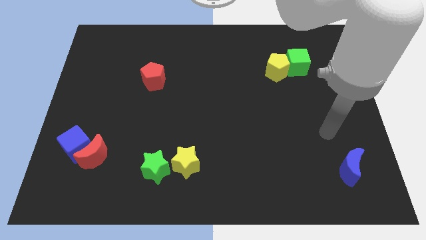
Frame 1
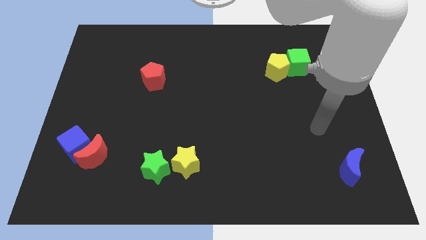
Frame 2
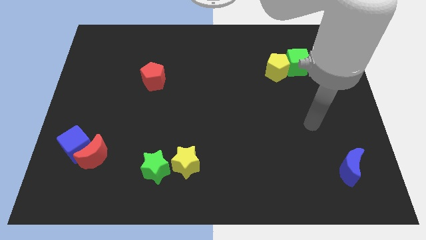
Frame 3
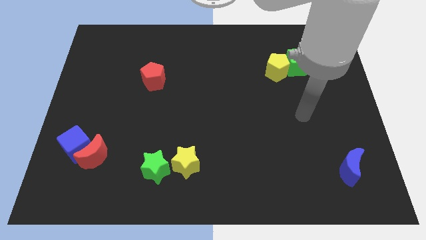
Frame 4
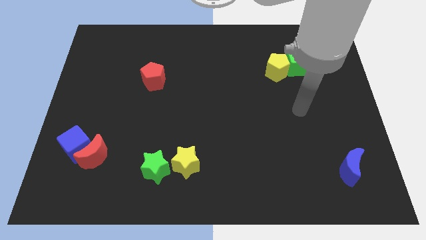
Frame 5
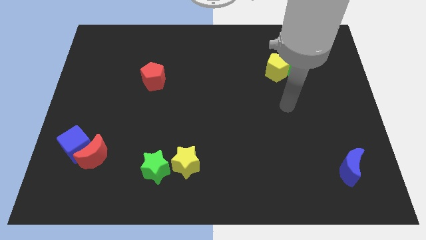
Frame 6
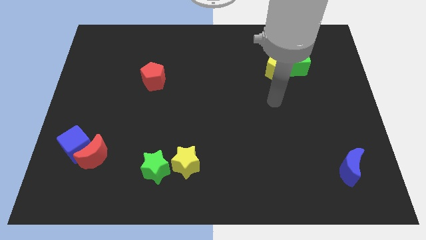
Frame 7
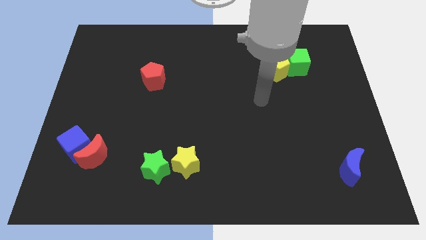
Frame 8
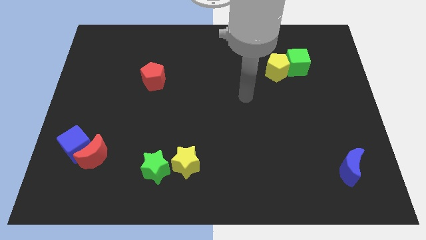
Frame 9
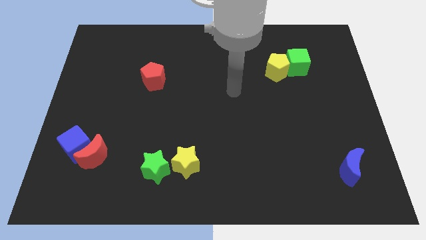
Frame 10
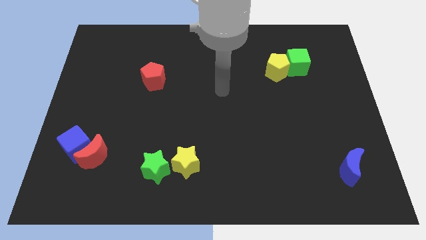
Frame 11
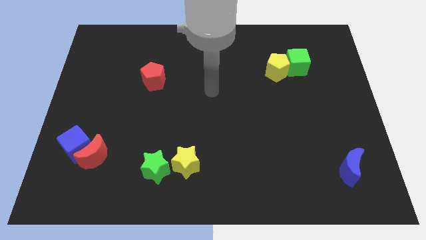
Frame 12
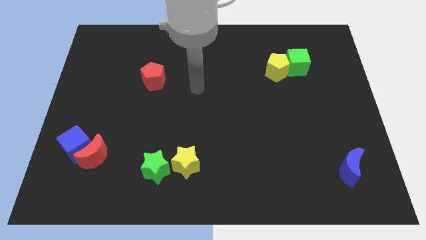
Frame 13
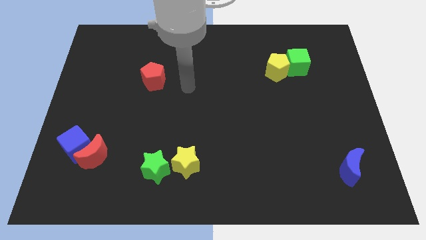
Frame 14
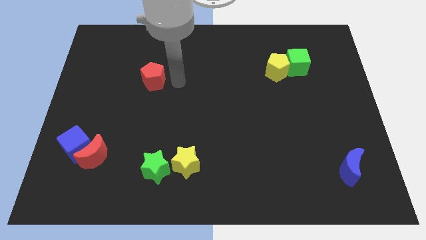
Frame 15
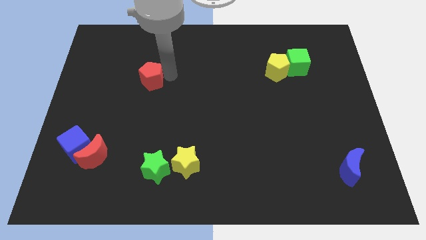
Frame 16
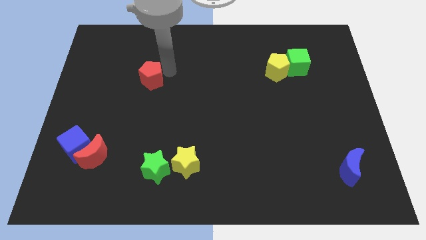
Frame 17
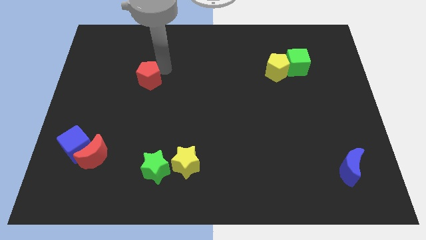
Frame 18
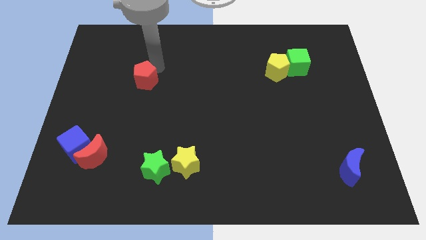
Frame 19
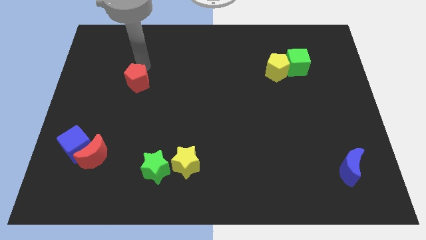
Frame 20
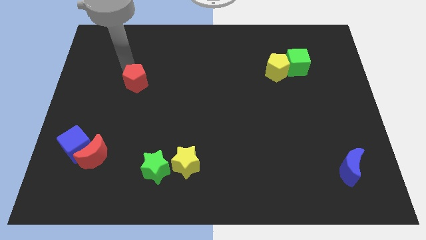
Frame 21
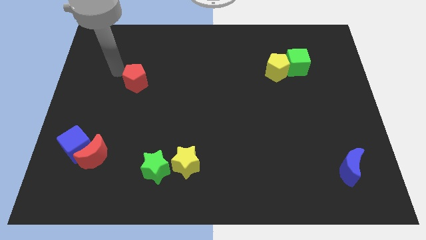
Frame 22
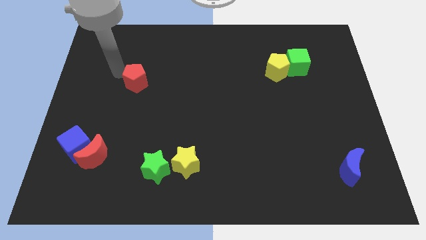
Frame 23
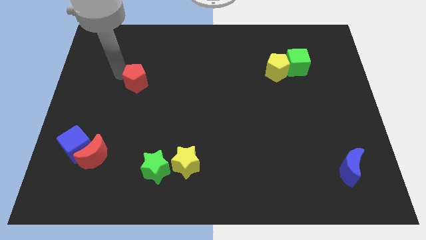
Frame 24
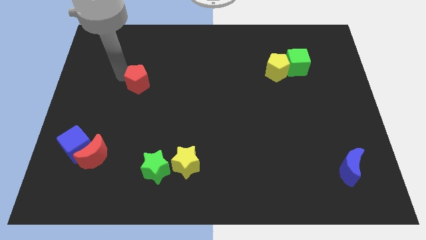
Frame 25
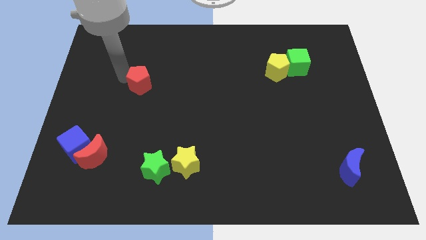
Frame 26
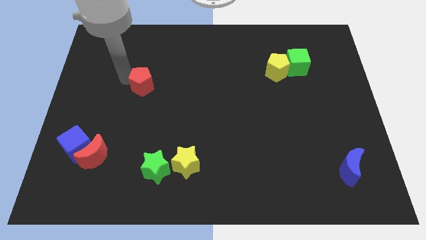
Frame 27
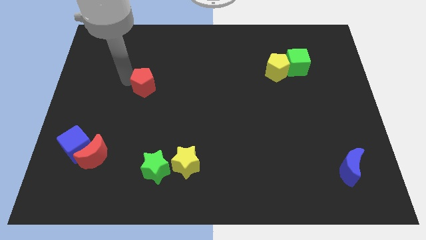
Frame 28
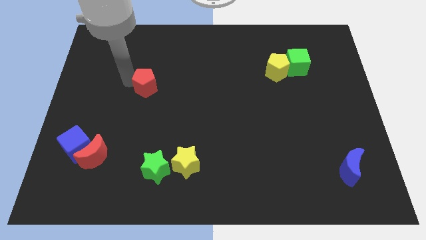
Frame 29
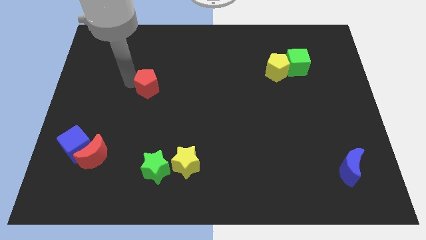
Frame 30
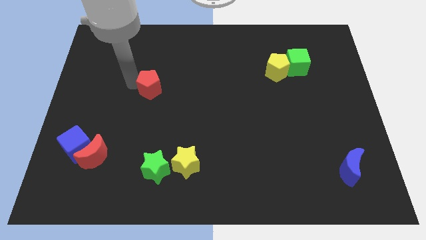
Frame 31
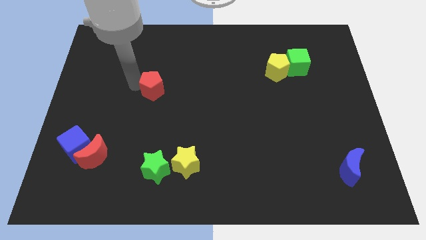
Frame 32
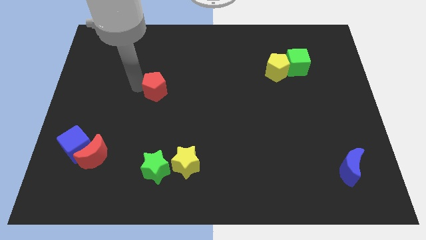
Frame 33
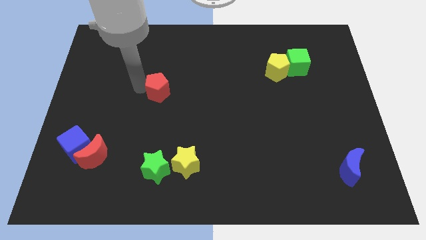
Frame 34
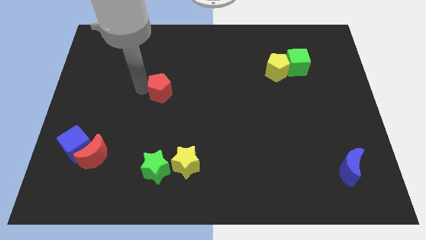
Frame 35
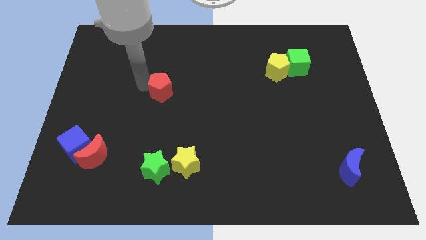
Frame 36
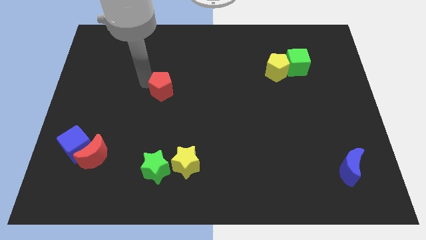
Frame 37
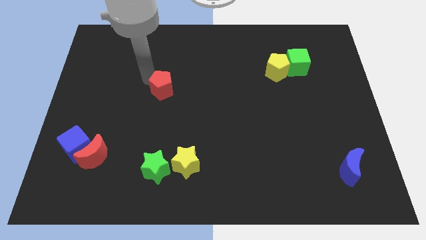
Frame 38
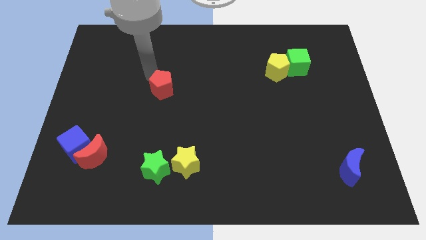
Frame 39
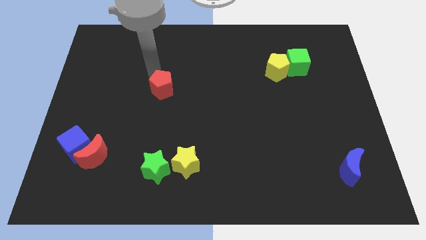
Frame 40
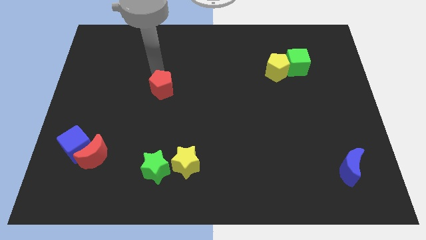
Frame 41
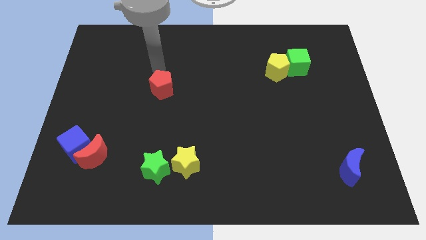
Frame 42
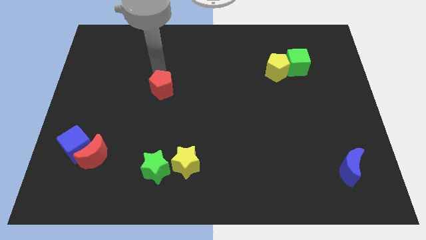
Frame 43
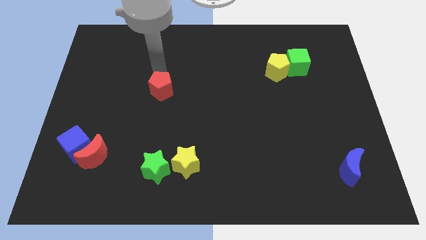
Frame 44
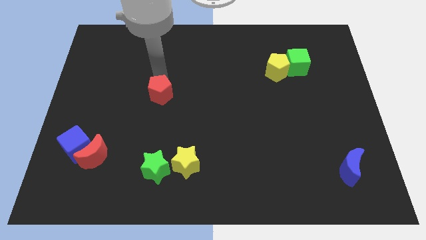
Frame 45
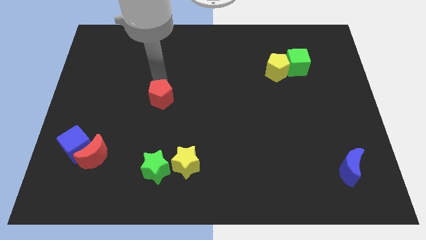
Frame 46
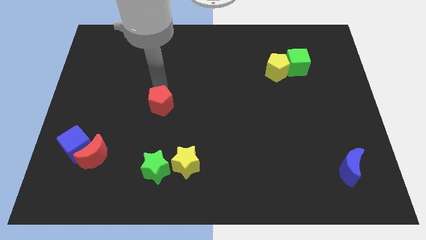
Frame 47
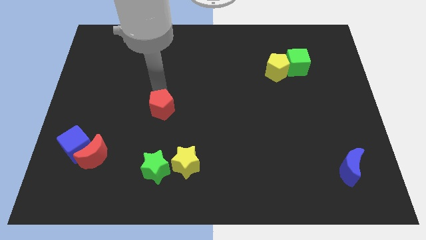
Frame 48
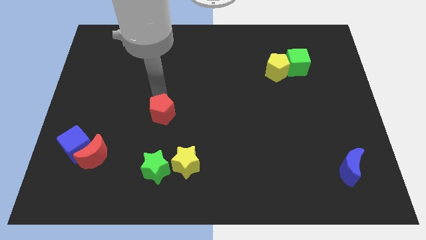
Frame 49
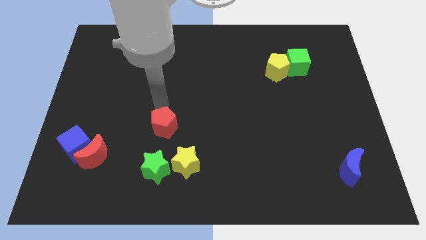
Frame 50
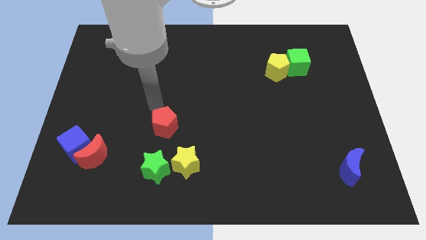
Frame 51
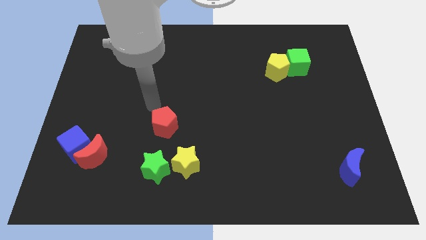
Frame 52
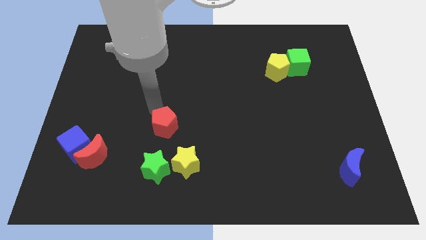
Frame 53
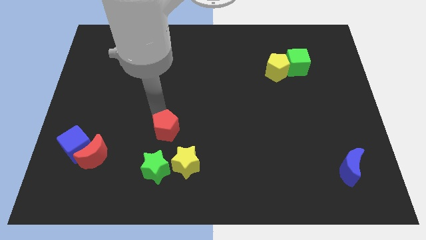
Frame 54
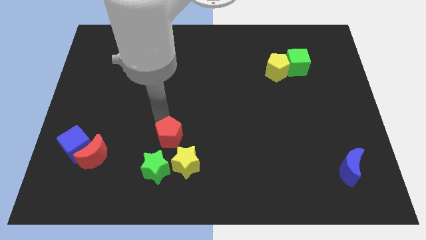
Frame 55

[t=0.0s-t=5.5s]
move the red pentagon diagonally up and to the right of the green star

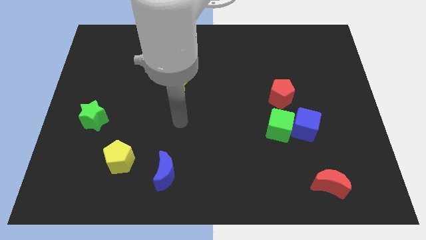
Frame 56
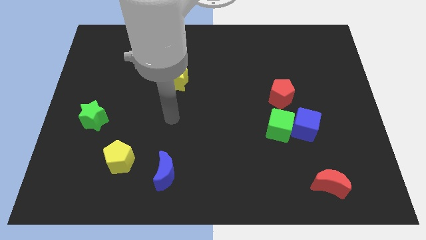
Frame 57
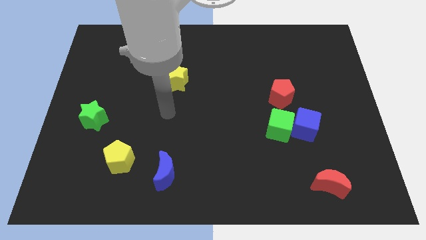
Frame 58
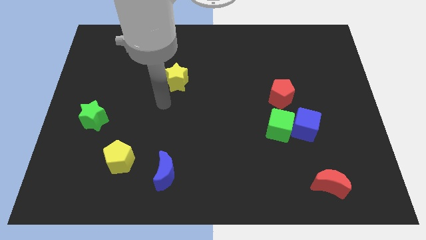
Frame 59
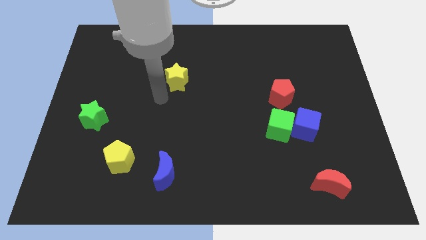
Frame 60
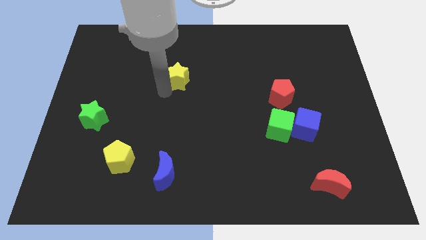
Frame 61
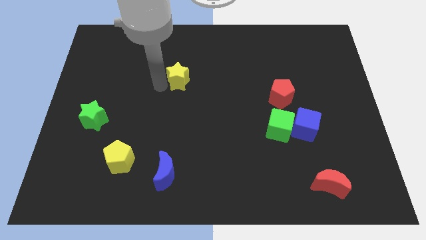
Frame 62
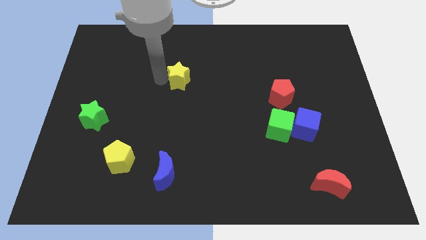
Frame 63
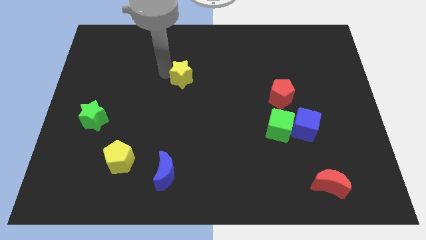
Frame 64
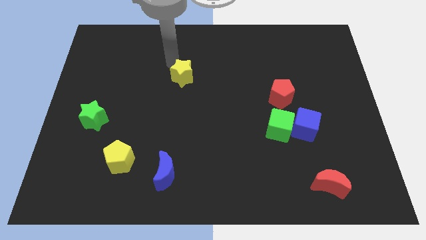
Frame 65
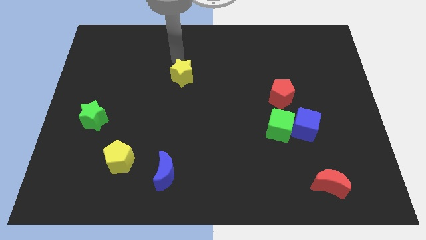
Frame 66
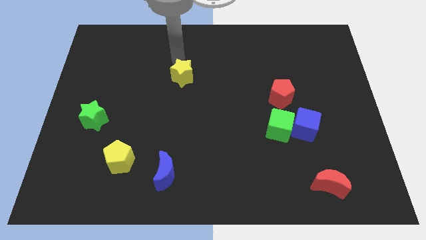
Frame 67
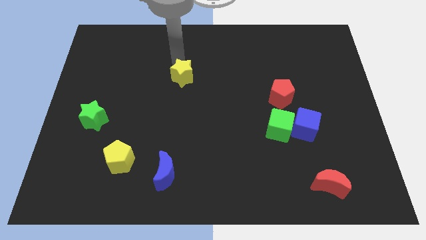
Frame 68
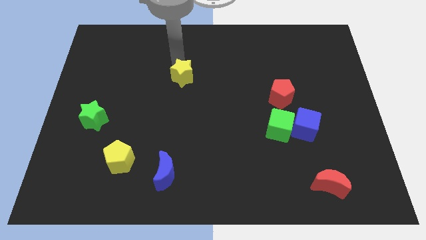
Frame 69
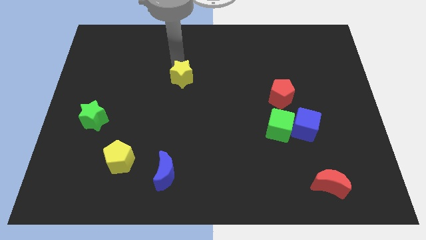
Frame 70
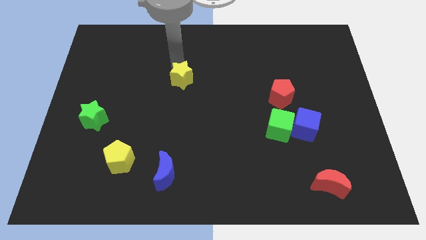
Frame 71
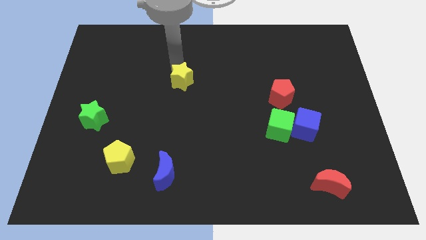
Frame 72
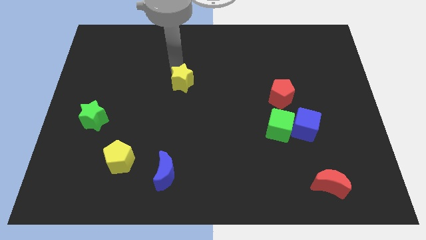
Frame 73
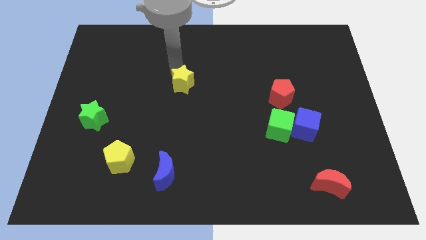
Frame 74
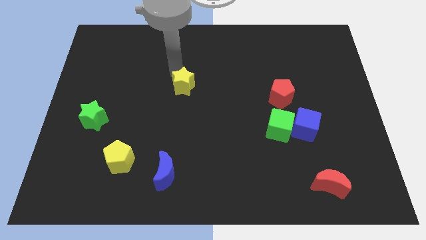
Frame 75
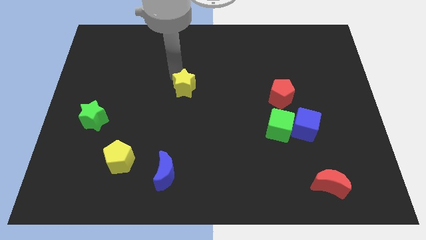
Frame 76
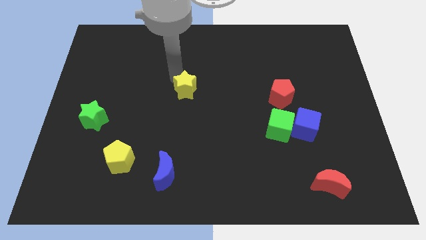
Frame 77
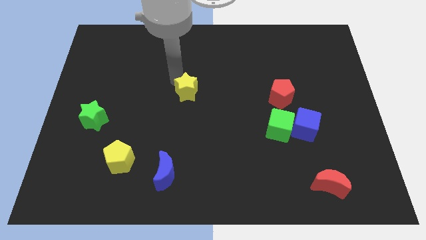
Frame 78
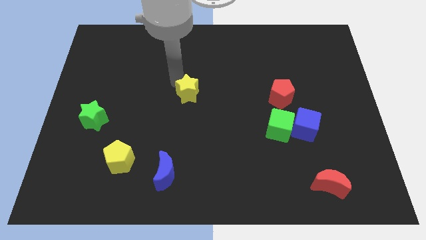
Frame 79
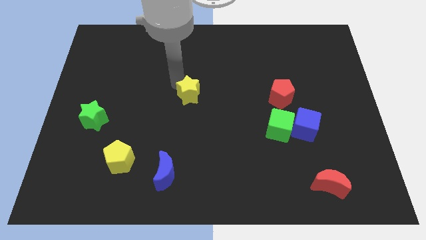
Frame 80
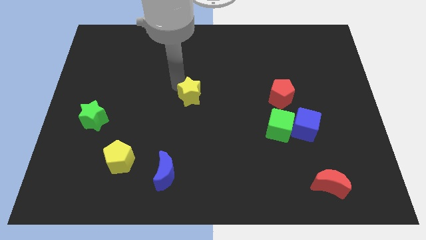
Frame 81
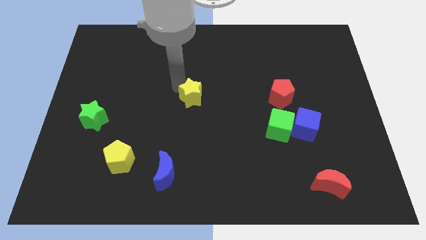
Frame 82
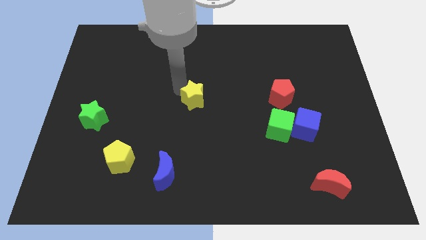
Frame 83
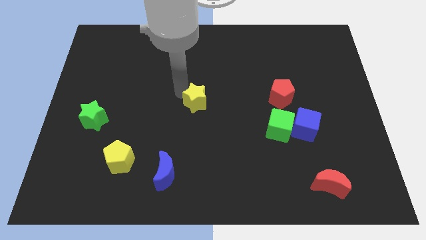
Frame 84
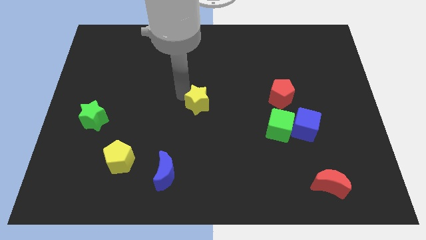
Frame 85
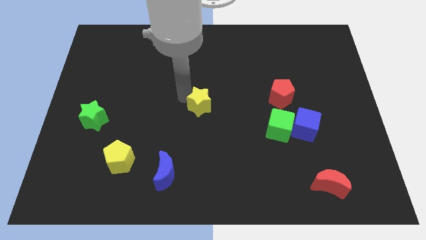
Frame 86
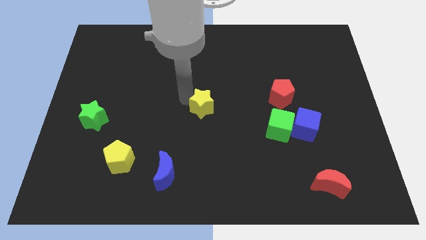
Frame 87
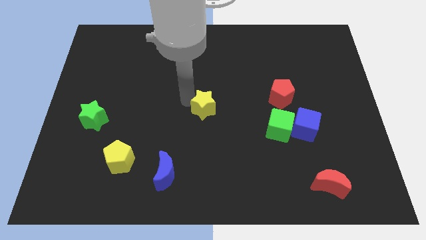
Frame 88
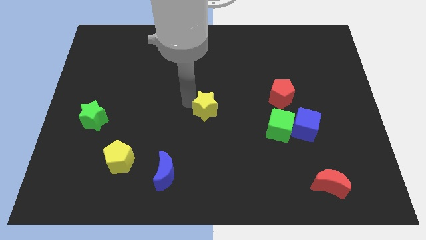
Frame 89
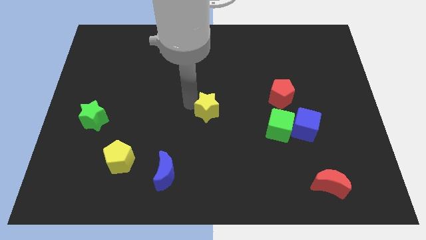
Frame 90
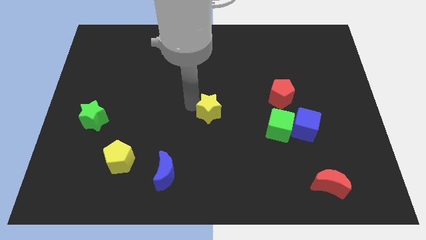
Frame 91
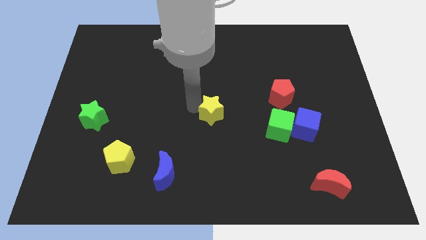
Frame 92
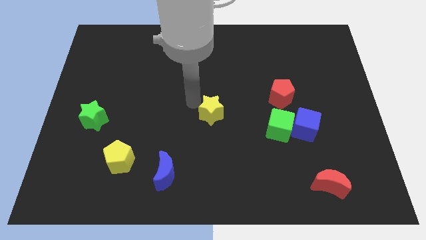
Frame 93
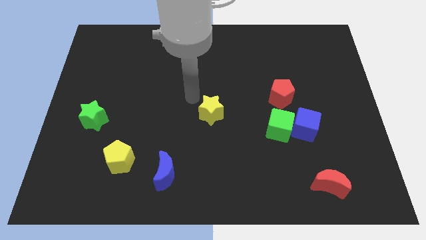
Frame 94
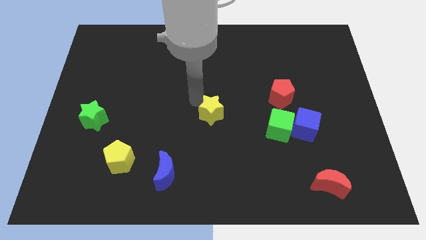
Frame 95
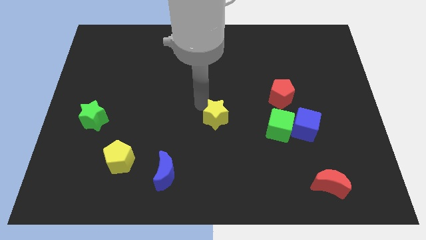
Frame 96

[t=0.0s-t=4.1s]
slide the yellow star to the left of the green cube
